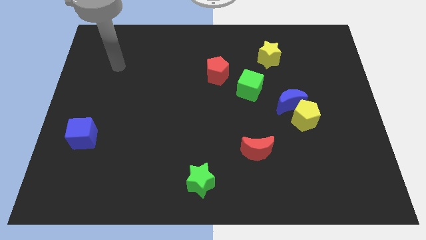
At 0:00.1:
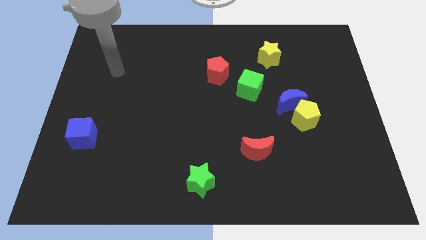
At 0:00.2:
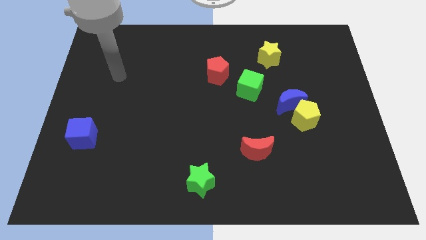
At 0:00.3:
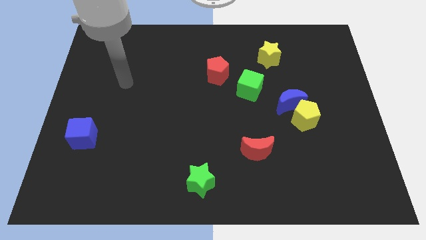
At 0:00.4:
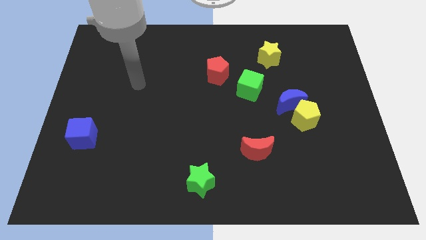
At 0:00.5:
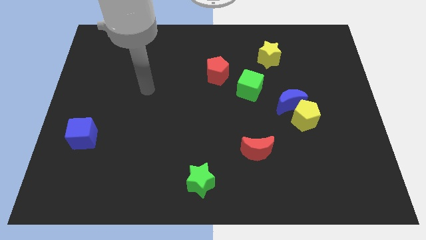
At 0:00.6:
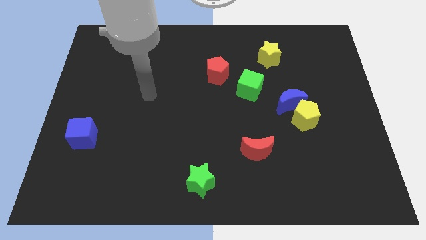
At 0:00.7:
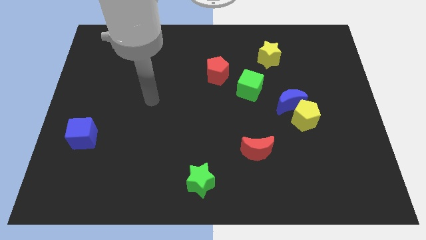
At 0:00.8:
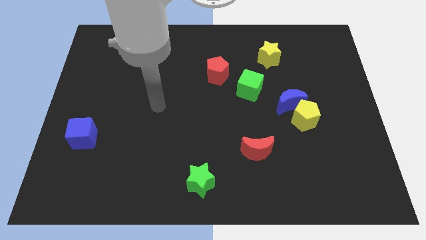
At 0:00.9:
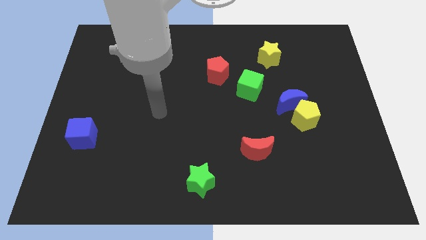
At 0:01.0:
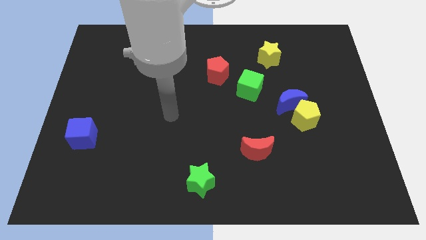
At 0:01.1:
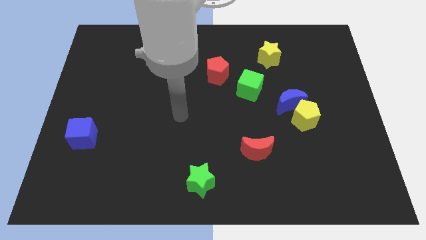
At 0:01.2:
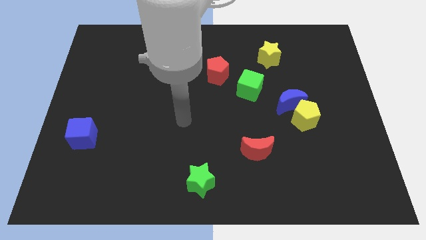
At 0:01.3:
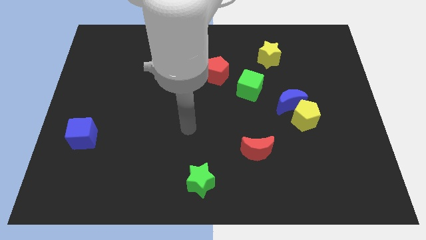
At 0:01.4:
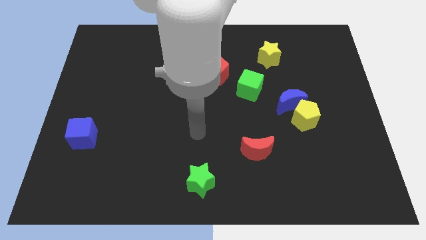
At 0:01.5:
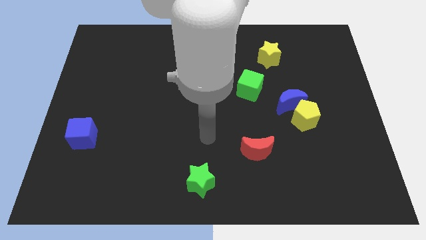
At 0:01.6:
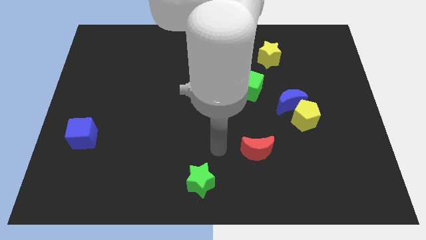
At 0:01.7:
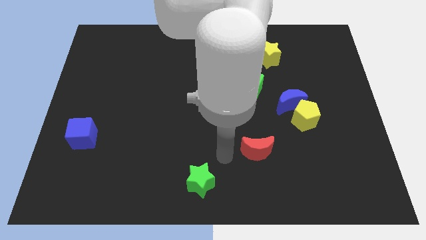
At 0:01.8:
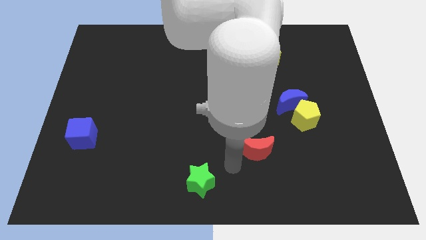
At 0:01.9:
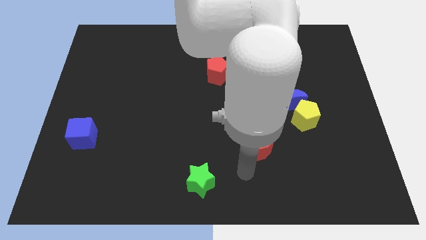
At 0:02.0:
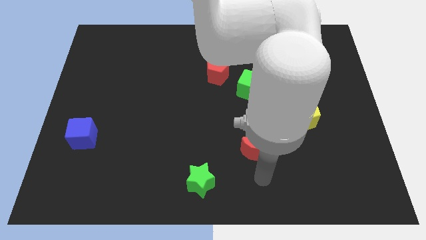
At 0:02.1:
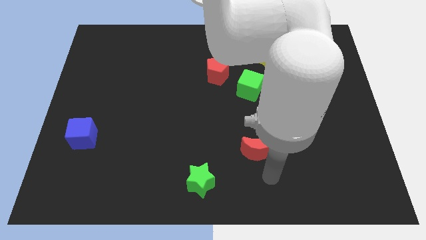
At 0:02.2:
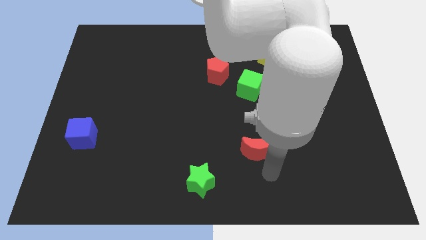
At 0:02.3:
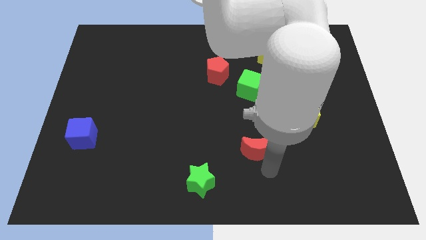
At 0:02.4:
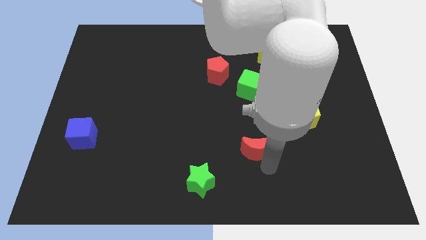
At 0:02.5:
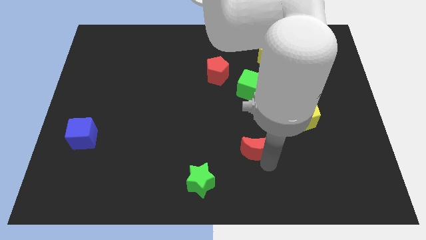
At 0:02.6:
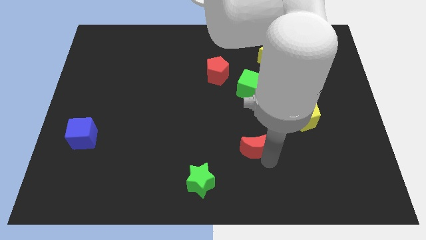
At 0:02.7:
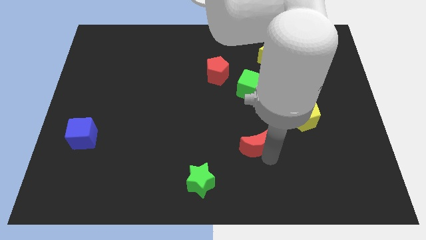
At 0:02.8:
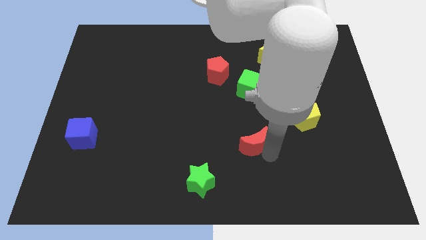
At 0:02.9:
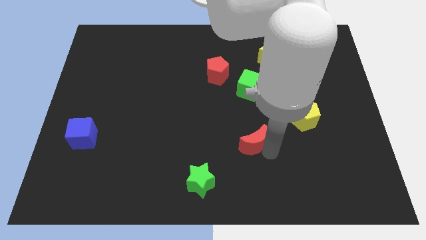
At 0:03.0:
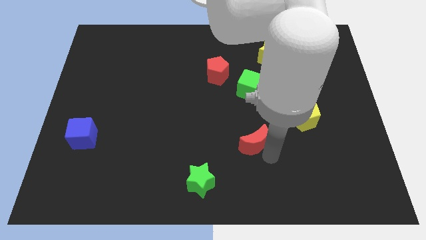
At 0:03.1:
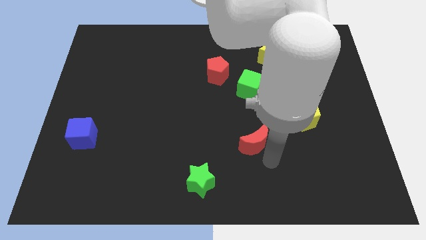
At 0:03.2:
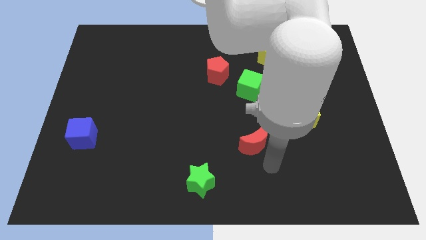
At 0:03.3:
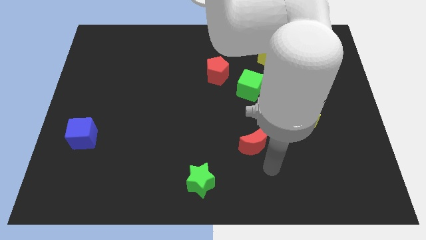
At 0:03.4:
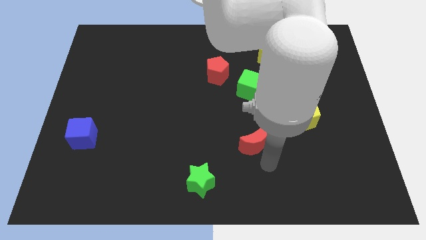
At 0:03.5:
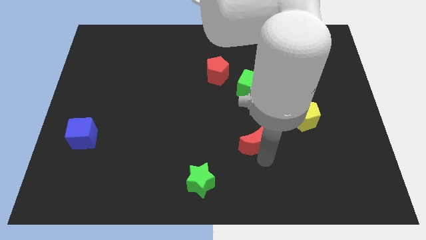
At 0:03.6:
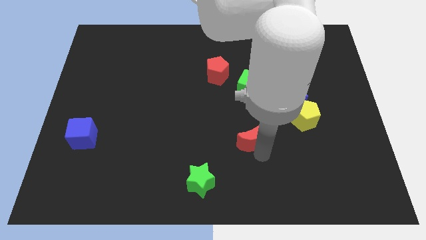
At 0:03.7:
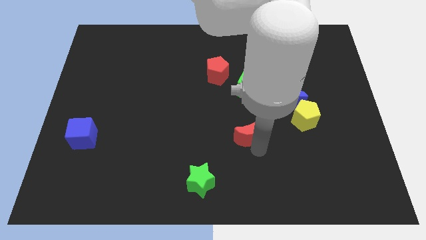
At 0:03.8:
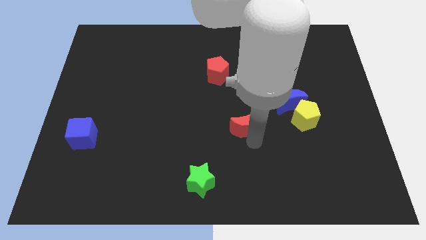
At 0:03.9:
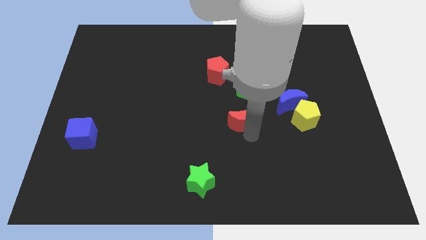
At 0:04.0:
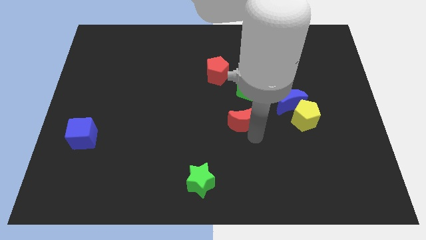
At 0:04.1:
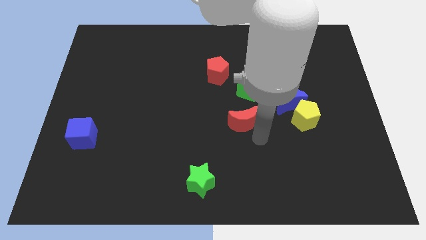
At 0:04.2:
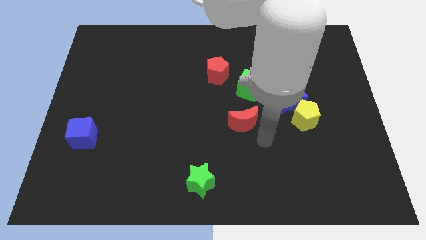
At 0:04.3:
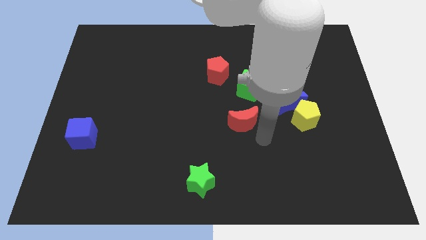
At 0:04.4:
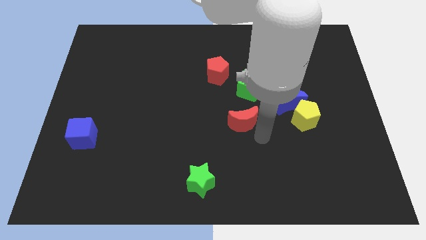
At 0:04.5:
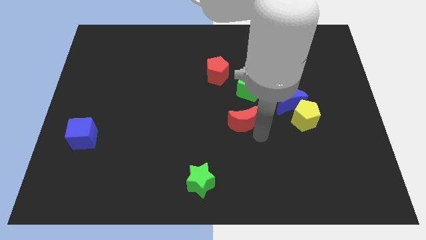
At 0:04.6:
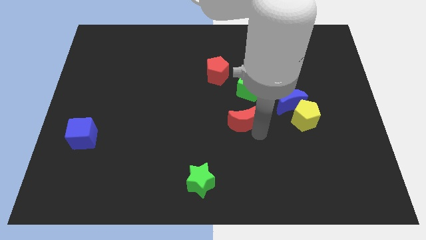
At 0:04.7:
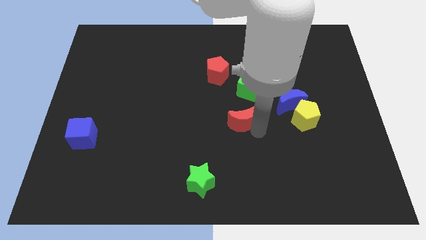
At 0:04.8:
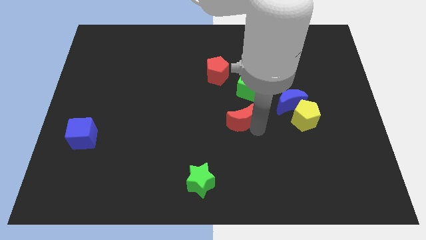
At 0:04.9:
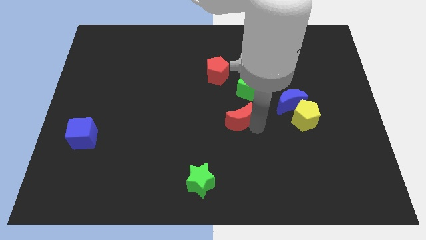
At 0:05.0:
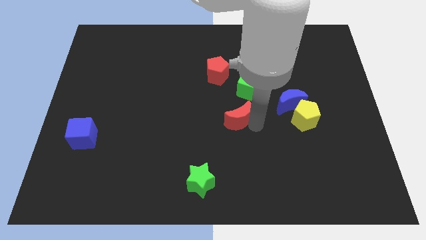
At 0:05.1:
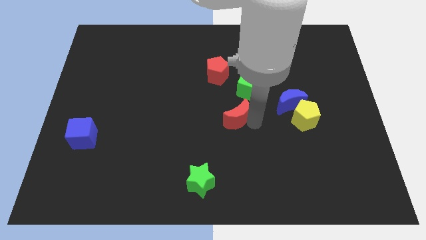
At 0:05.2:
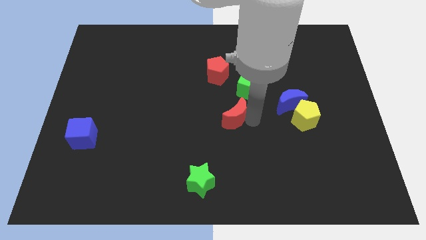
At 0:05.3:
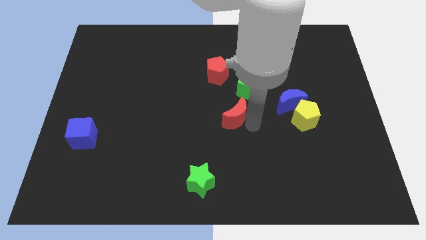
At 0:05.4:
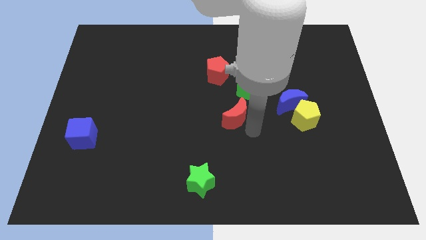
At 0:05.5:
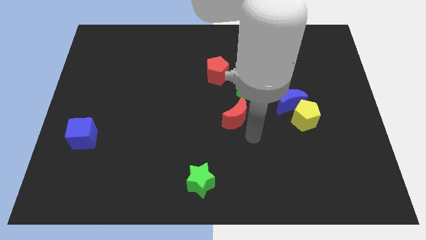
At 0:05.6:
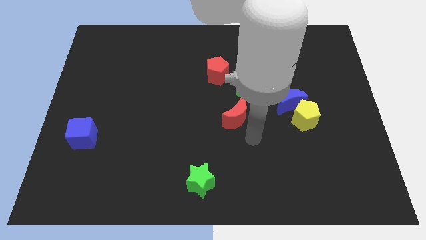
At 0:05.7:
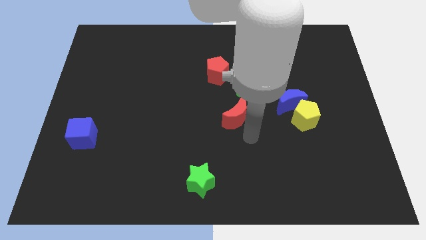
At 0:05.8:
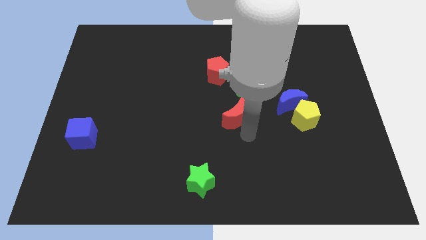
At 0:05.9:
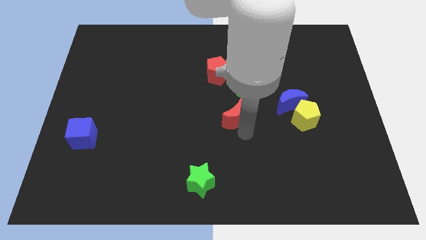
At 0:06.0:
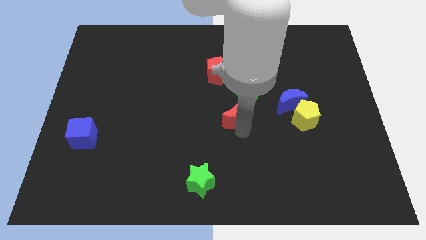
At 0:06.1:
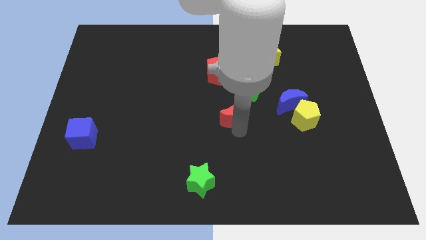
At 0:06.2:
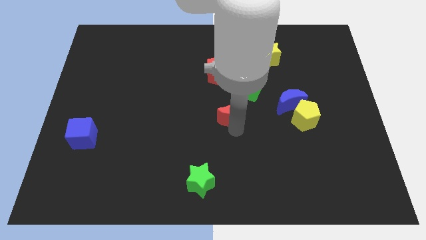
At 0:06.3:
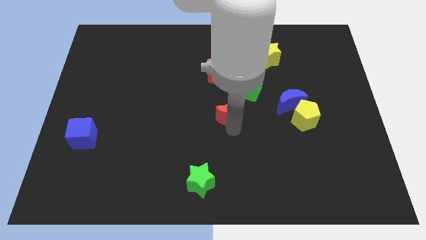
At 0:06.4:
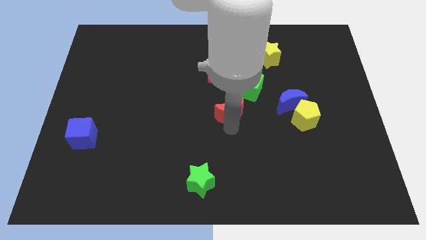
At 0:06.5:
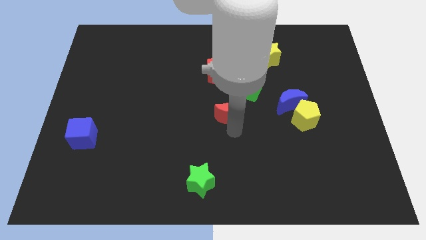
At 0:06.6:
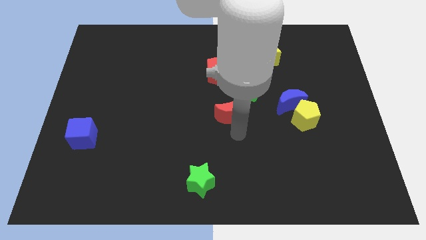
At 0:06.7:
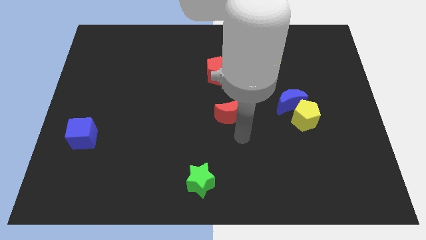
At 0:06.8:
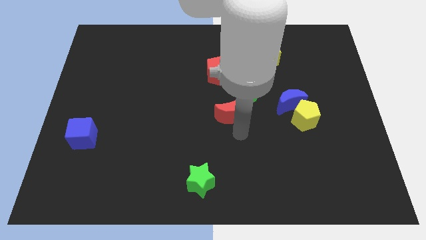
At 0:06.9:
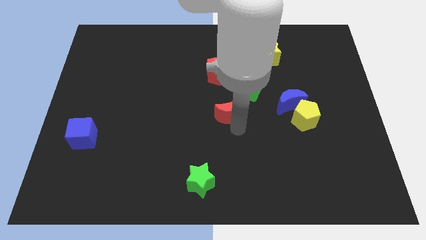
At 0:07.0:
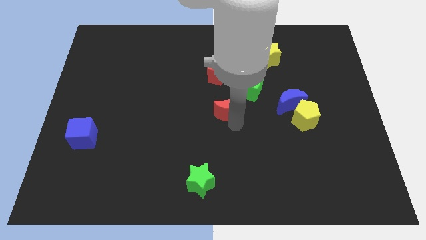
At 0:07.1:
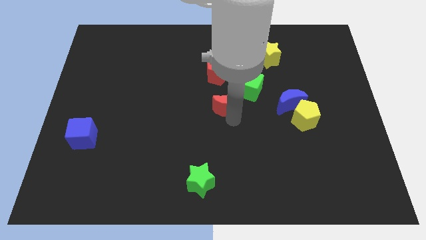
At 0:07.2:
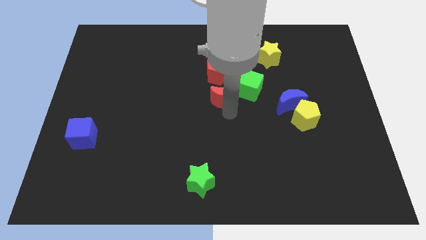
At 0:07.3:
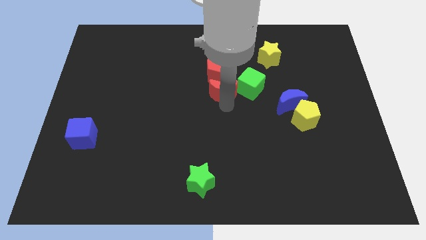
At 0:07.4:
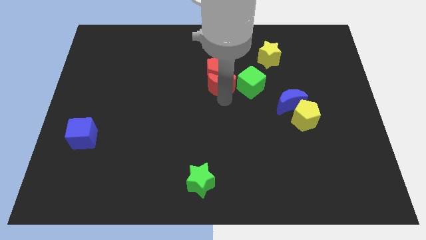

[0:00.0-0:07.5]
slide the red moon towards the red pentagon

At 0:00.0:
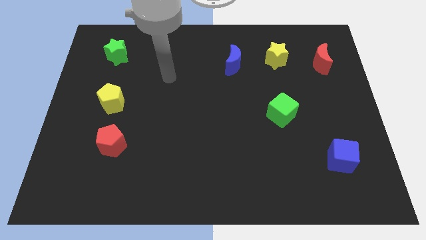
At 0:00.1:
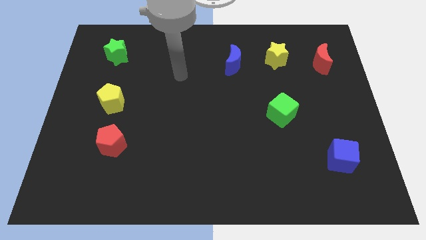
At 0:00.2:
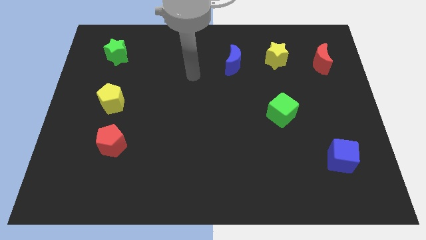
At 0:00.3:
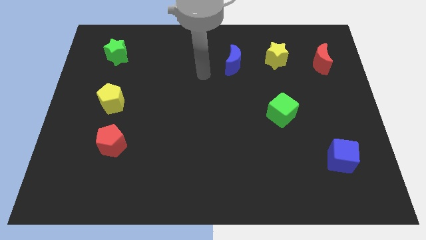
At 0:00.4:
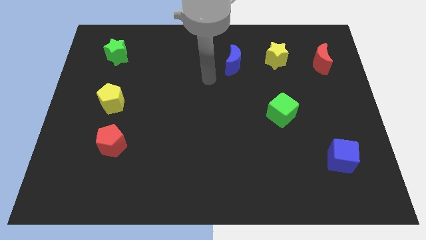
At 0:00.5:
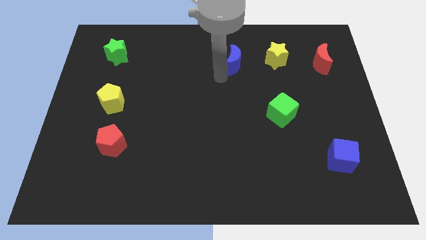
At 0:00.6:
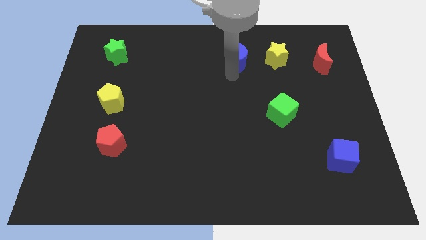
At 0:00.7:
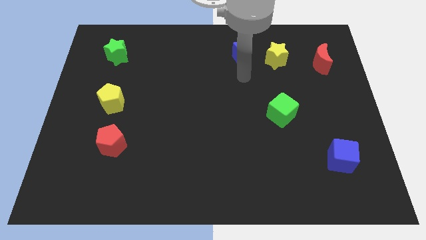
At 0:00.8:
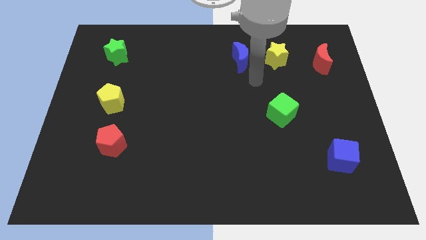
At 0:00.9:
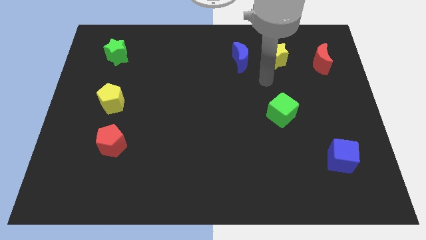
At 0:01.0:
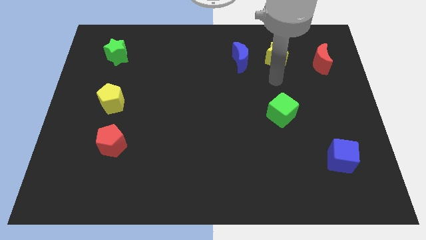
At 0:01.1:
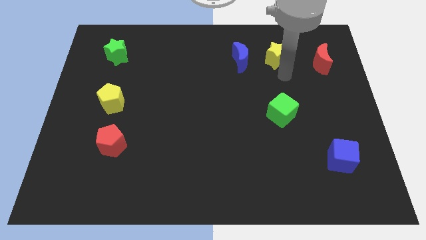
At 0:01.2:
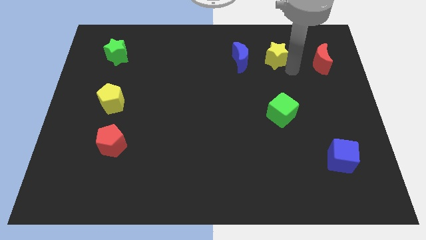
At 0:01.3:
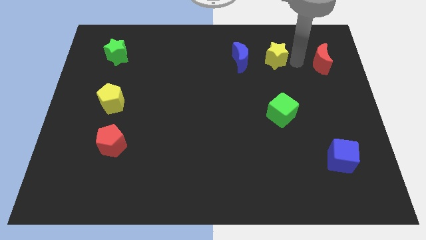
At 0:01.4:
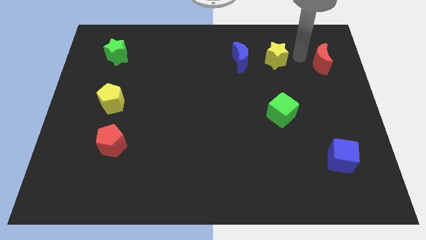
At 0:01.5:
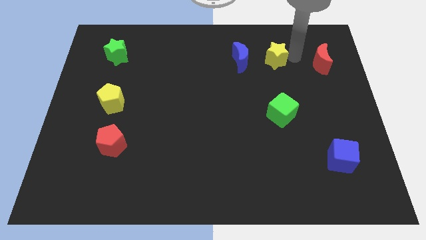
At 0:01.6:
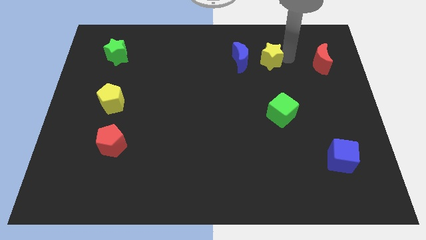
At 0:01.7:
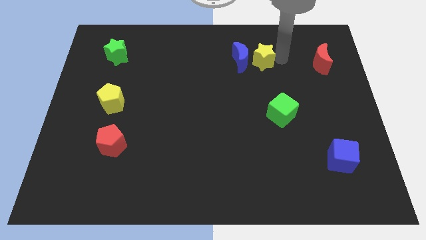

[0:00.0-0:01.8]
push the yellow star close to the blue moon
